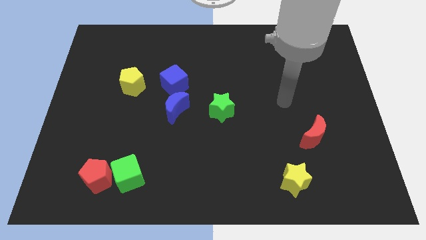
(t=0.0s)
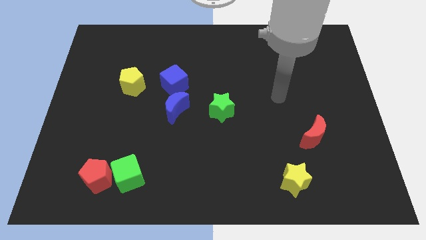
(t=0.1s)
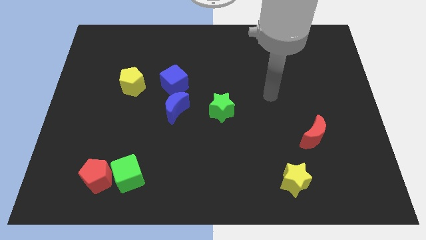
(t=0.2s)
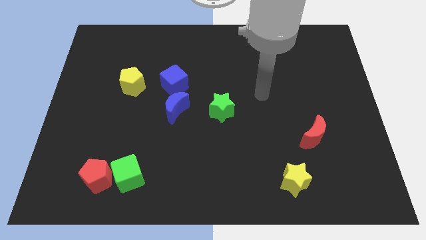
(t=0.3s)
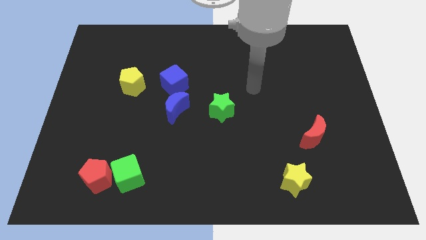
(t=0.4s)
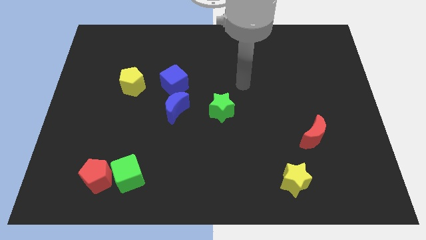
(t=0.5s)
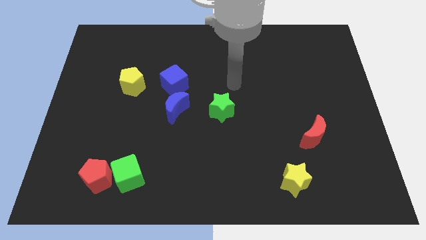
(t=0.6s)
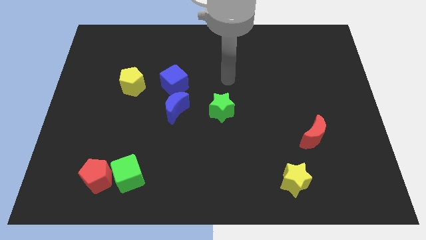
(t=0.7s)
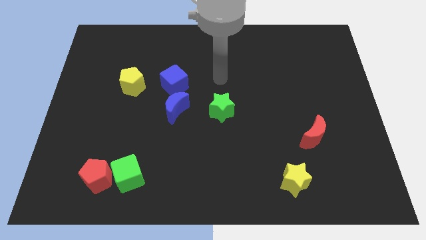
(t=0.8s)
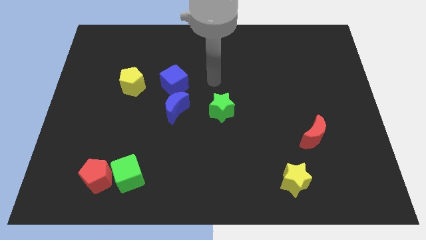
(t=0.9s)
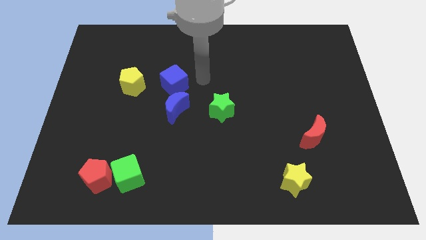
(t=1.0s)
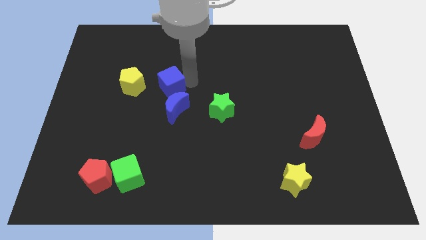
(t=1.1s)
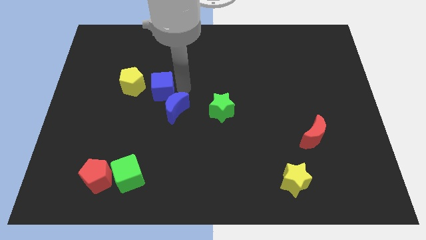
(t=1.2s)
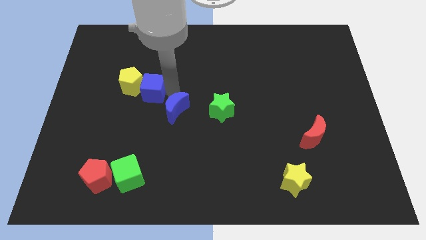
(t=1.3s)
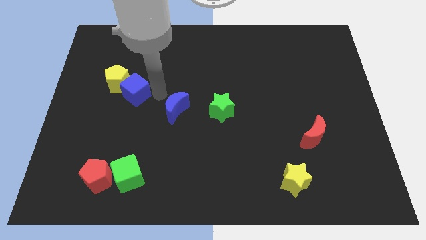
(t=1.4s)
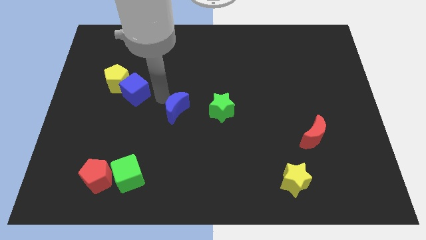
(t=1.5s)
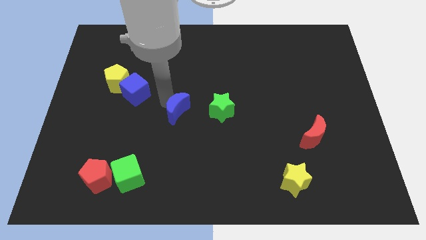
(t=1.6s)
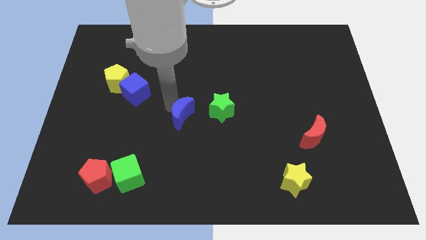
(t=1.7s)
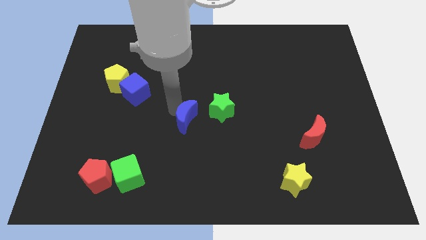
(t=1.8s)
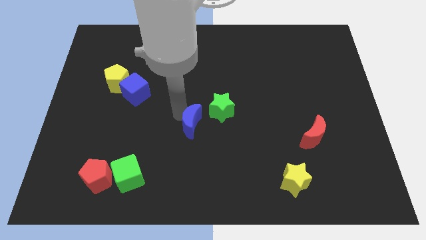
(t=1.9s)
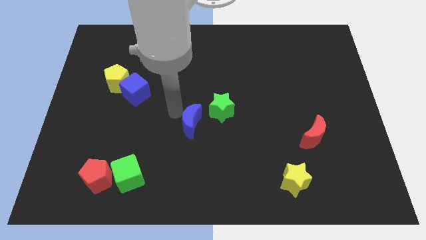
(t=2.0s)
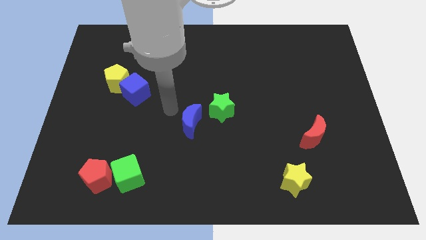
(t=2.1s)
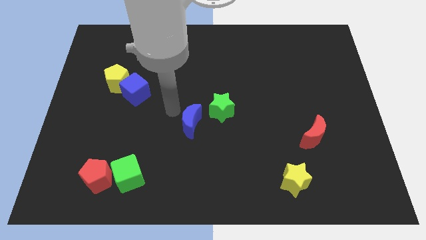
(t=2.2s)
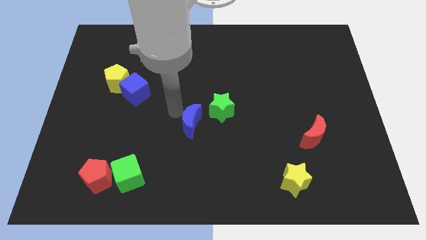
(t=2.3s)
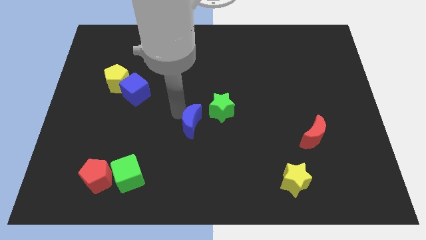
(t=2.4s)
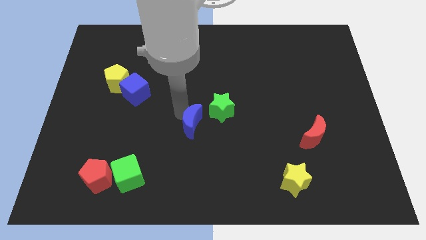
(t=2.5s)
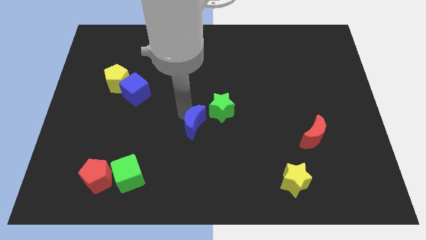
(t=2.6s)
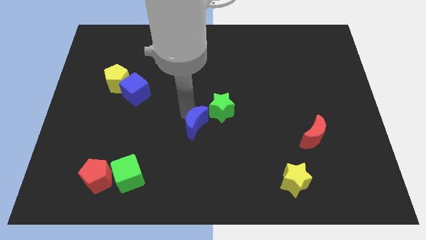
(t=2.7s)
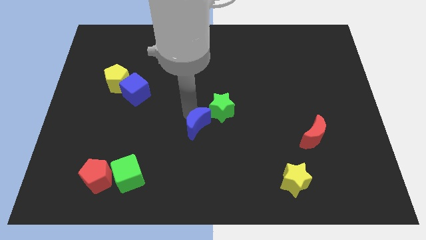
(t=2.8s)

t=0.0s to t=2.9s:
slightly slide the blue moon downwards and right

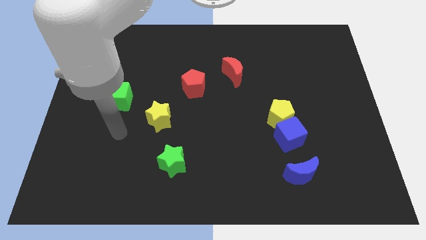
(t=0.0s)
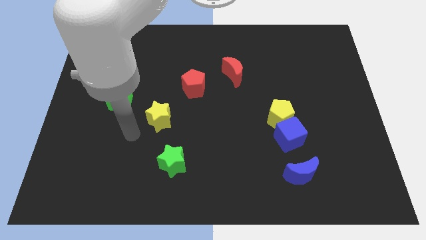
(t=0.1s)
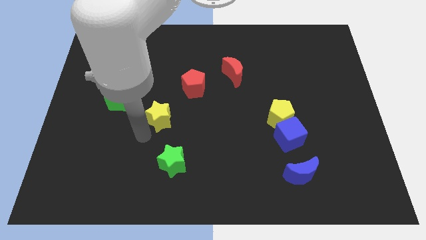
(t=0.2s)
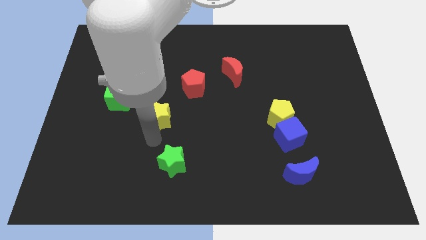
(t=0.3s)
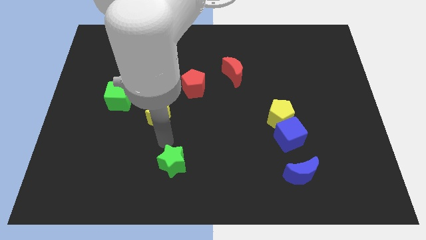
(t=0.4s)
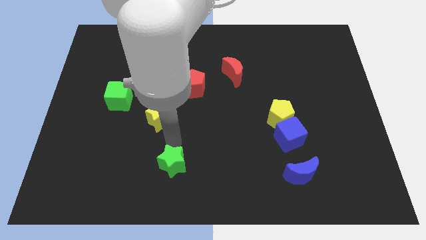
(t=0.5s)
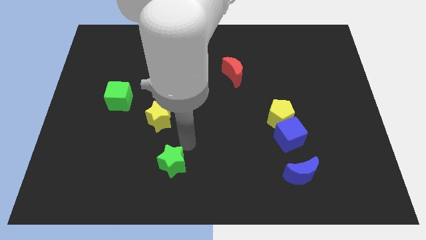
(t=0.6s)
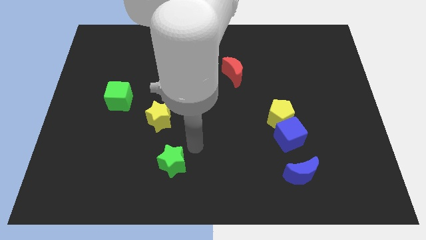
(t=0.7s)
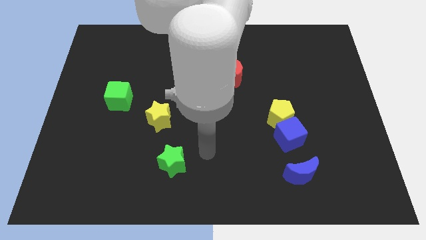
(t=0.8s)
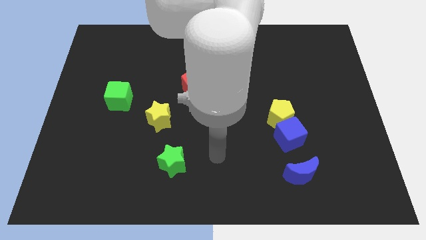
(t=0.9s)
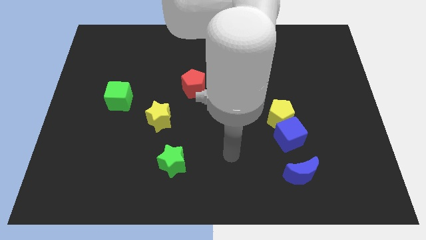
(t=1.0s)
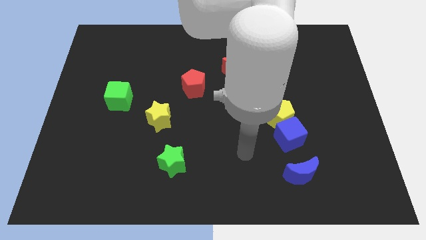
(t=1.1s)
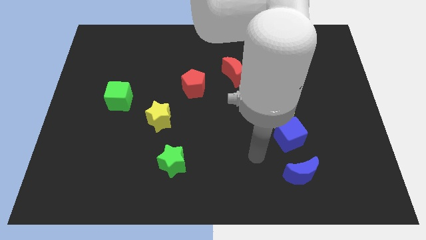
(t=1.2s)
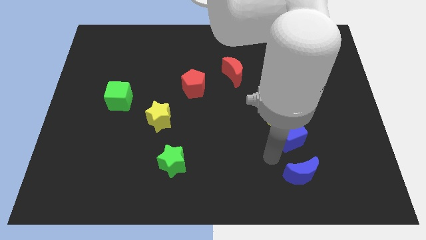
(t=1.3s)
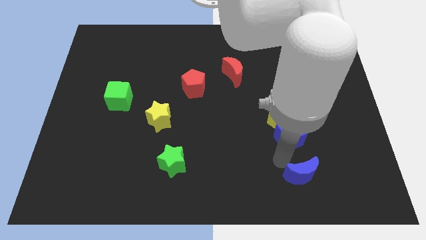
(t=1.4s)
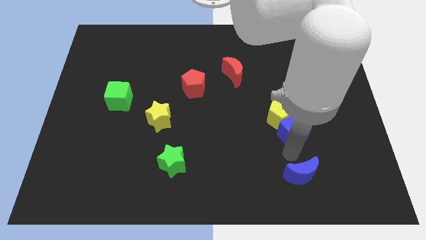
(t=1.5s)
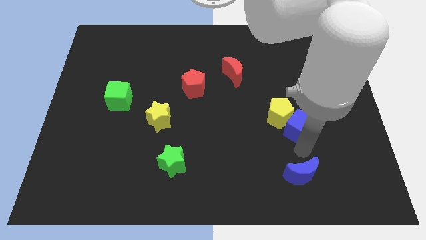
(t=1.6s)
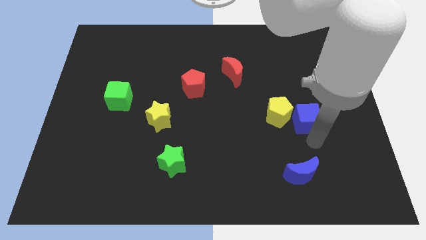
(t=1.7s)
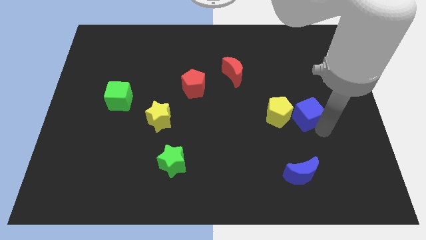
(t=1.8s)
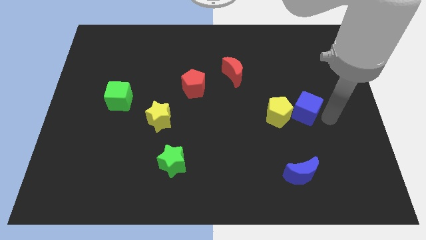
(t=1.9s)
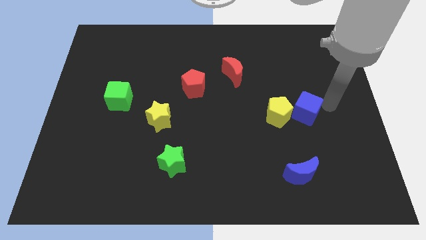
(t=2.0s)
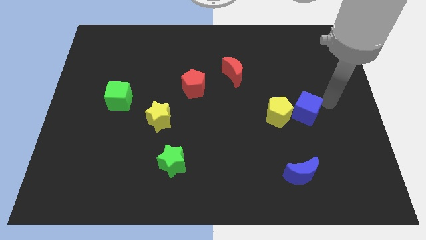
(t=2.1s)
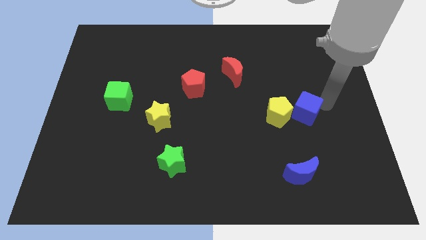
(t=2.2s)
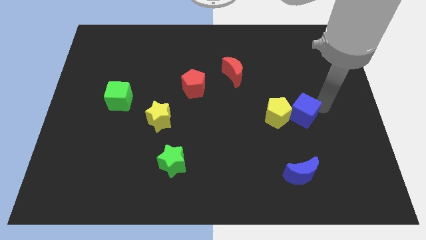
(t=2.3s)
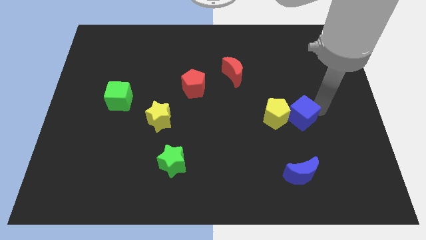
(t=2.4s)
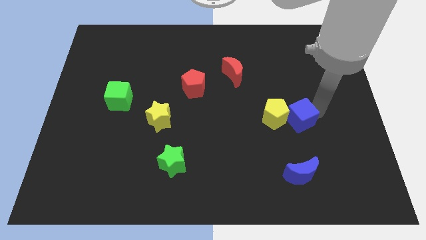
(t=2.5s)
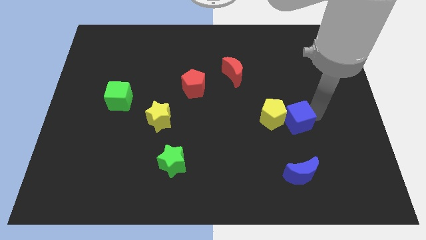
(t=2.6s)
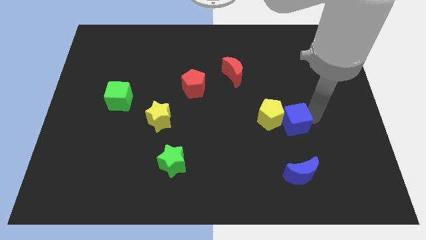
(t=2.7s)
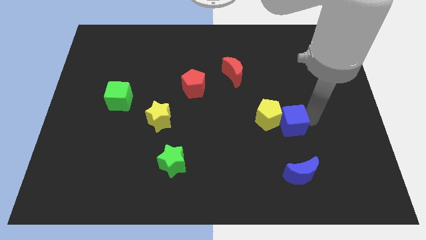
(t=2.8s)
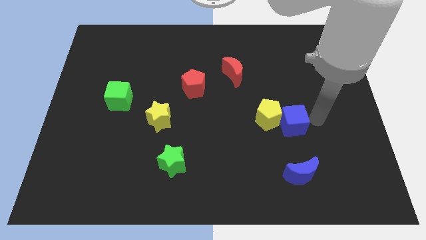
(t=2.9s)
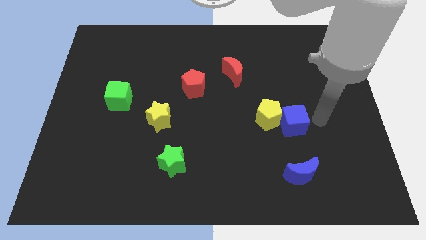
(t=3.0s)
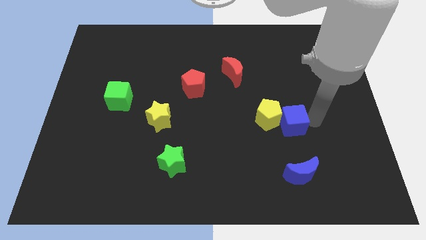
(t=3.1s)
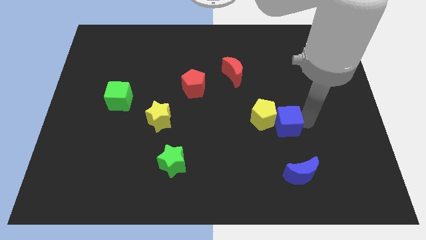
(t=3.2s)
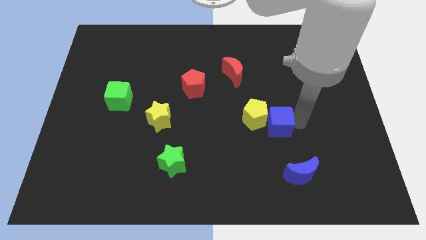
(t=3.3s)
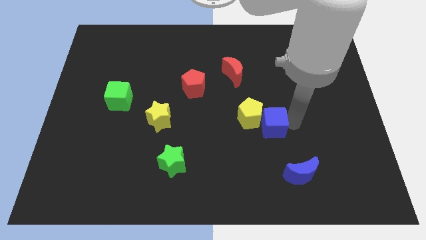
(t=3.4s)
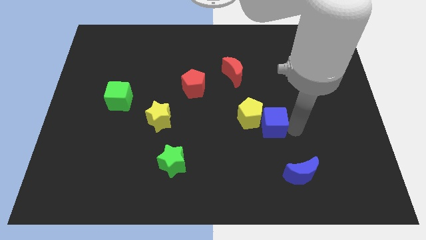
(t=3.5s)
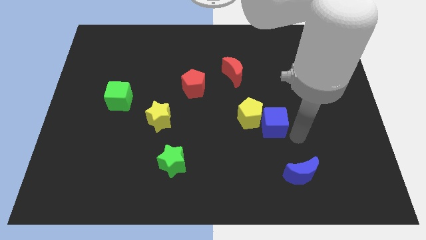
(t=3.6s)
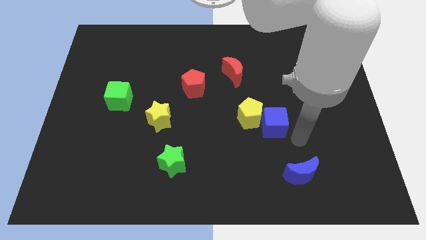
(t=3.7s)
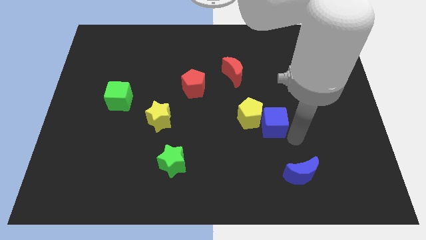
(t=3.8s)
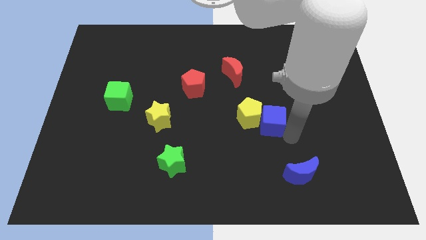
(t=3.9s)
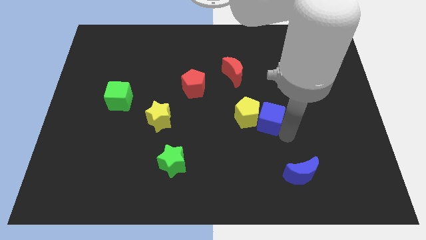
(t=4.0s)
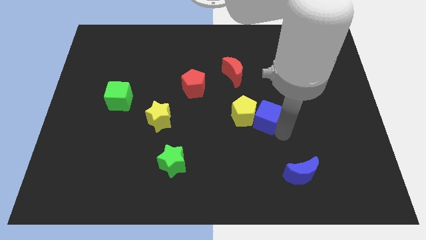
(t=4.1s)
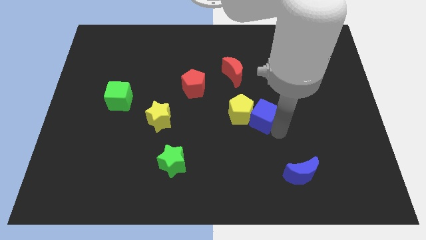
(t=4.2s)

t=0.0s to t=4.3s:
push the blue cube somewhat upwards and left

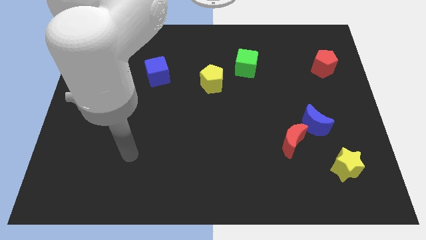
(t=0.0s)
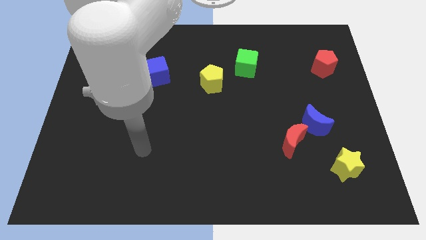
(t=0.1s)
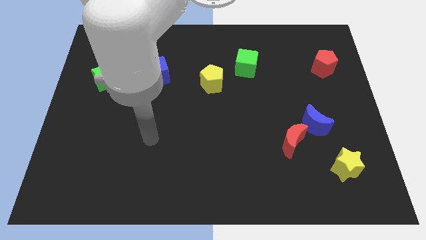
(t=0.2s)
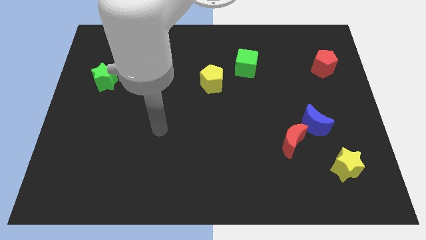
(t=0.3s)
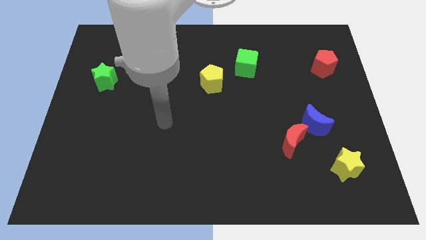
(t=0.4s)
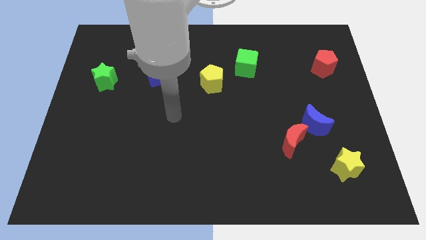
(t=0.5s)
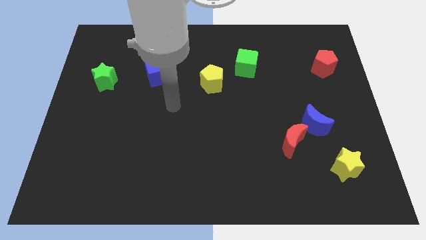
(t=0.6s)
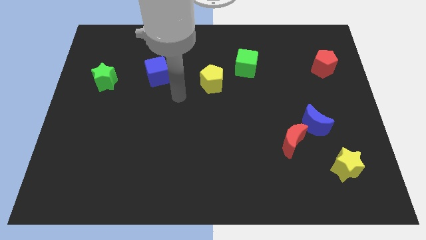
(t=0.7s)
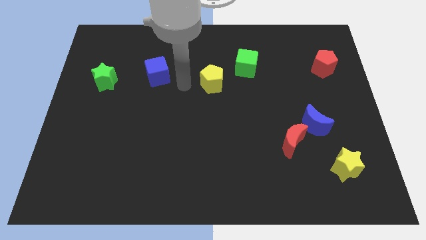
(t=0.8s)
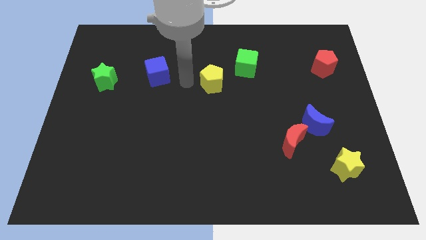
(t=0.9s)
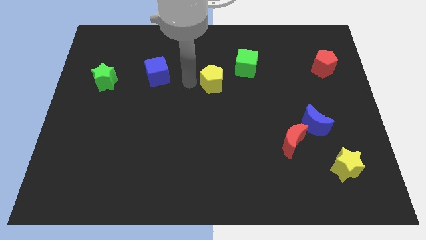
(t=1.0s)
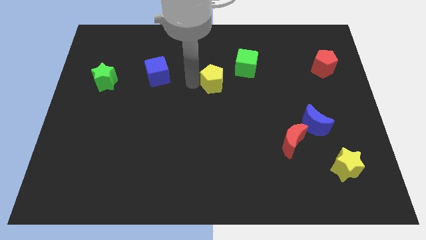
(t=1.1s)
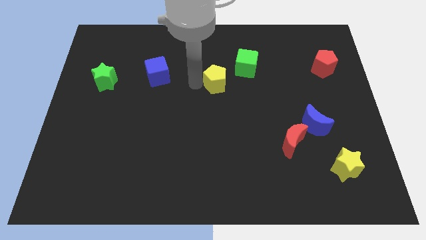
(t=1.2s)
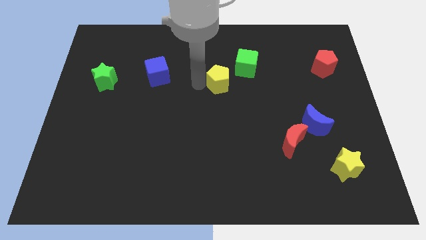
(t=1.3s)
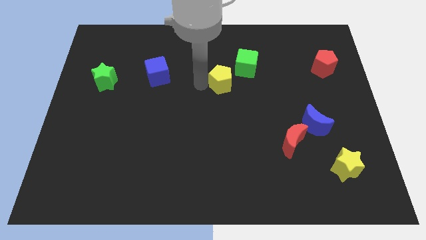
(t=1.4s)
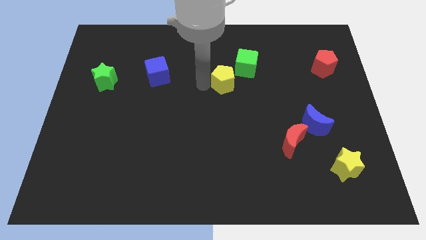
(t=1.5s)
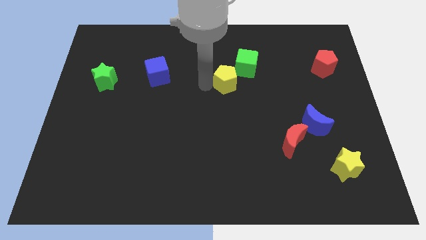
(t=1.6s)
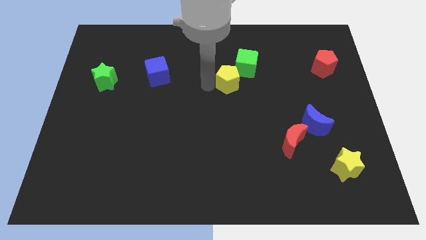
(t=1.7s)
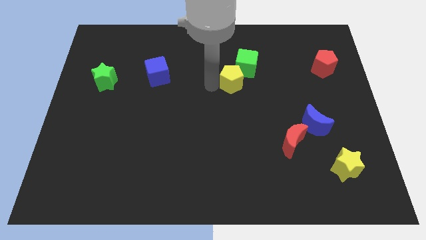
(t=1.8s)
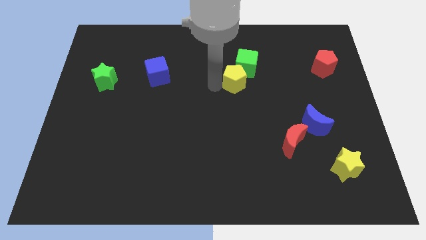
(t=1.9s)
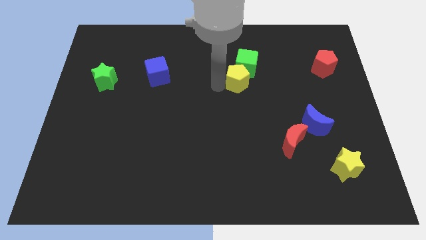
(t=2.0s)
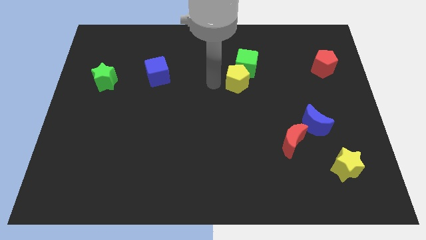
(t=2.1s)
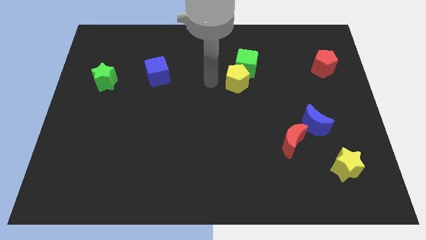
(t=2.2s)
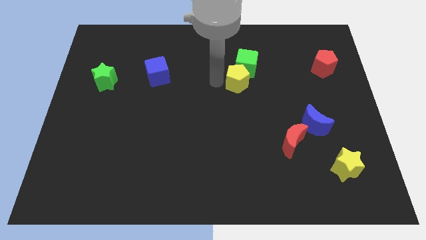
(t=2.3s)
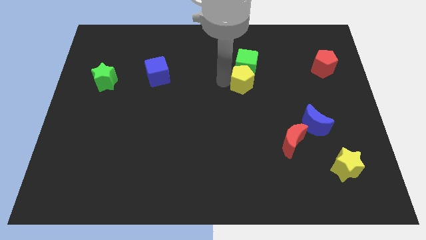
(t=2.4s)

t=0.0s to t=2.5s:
move the yellow pentagon to the right slightly
